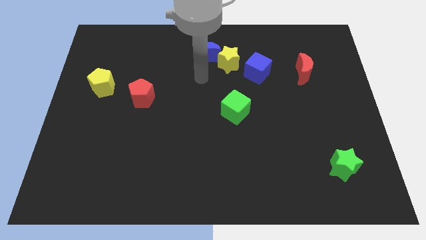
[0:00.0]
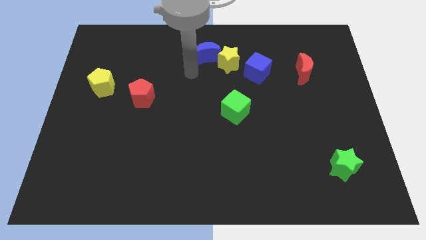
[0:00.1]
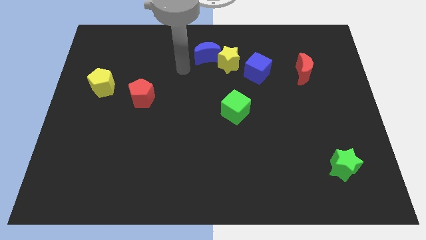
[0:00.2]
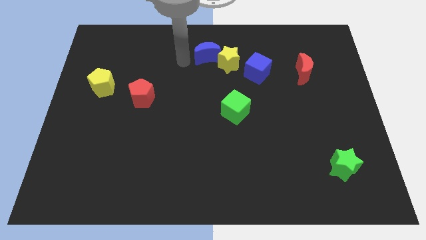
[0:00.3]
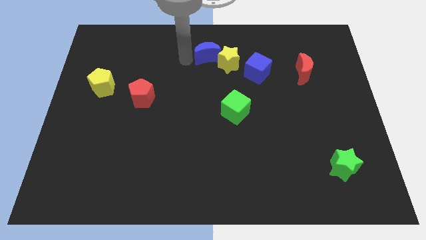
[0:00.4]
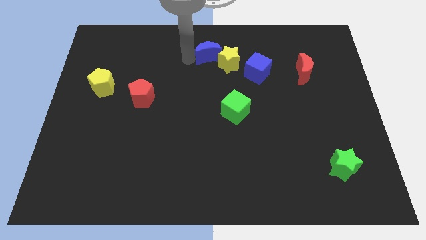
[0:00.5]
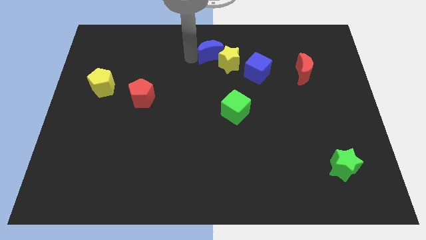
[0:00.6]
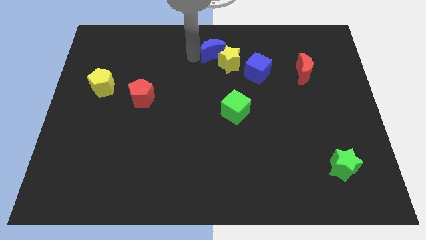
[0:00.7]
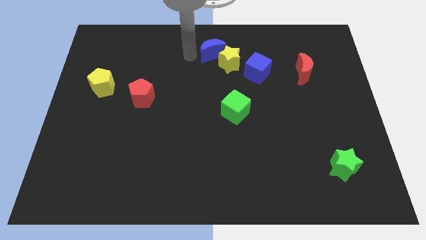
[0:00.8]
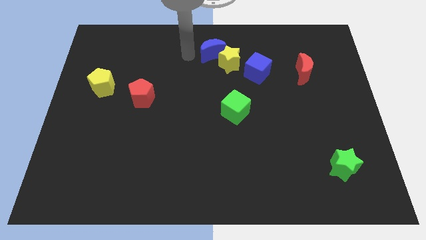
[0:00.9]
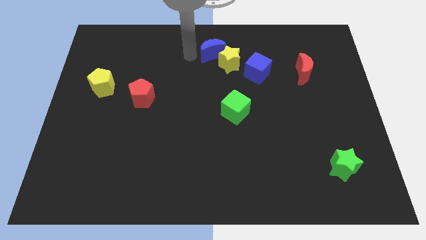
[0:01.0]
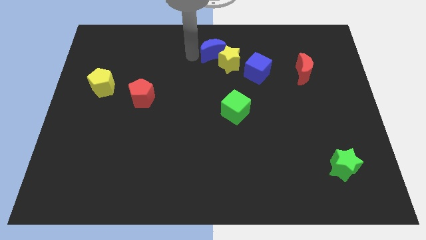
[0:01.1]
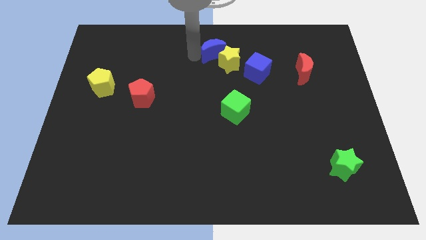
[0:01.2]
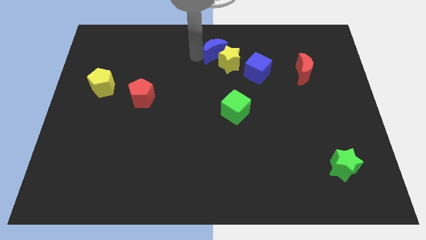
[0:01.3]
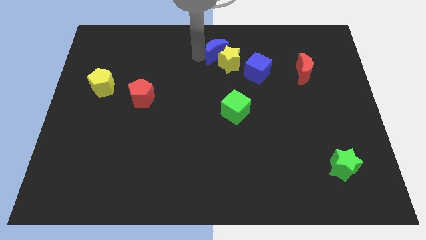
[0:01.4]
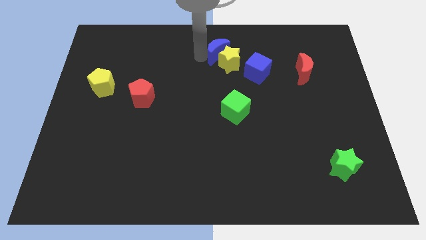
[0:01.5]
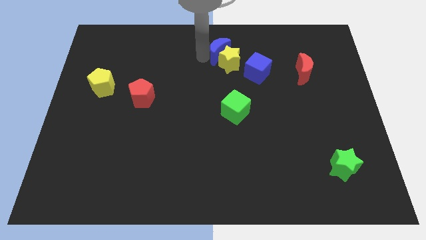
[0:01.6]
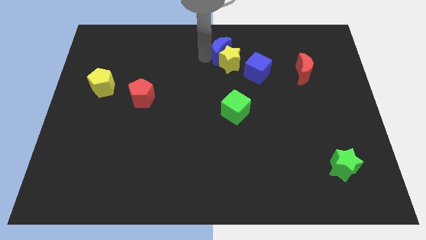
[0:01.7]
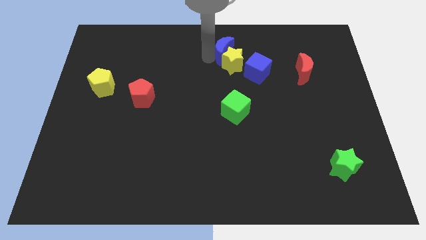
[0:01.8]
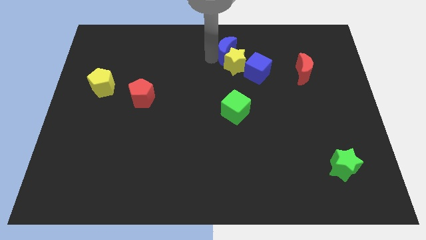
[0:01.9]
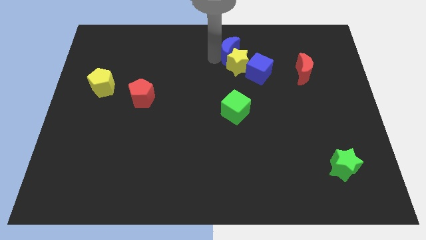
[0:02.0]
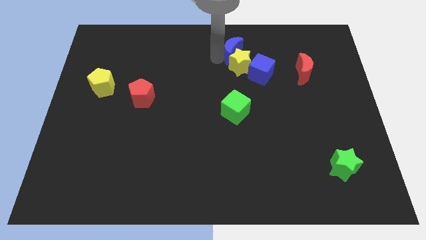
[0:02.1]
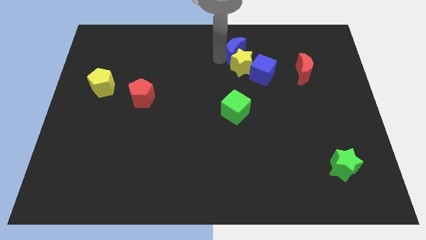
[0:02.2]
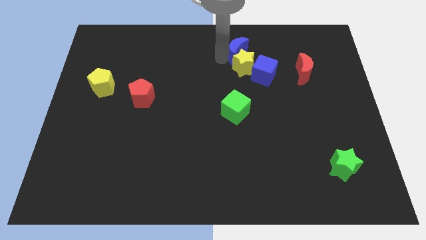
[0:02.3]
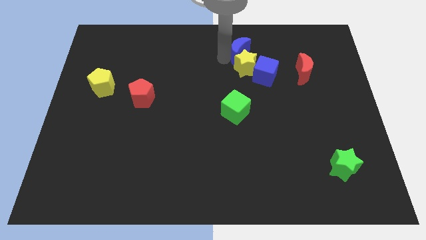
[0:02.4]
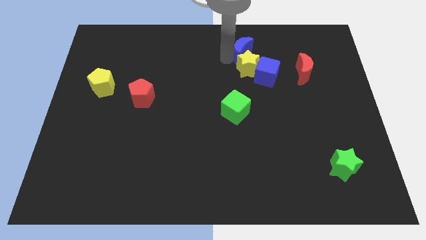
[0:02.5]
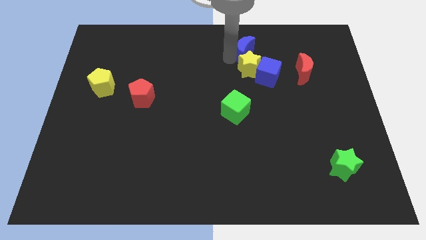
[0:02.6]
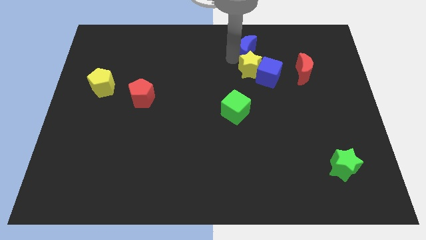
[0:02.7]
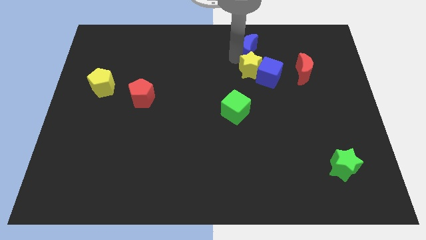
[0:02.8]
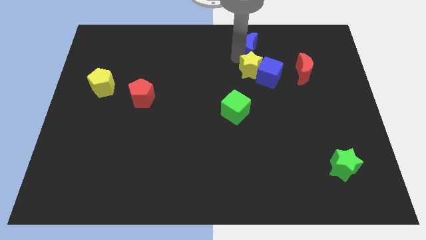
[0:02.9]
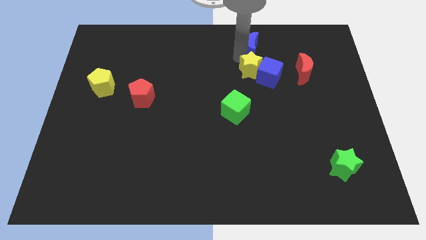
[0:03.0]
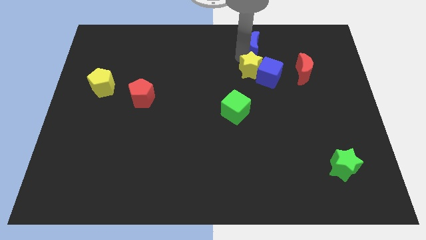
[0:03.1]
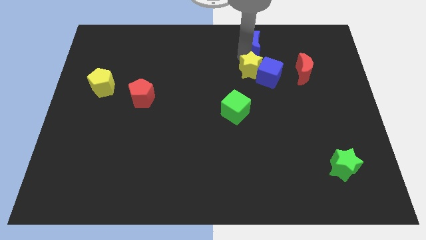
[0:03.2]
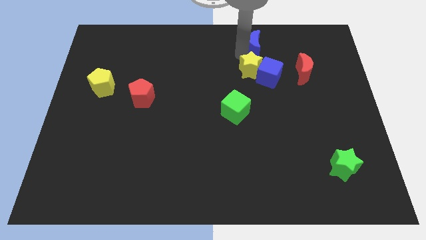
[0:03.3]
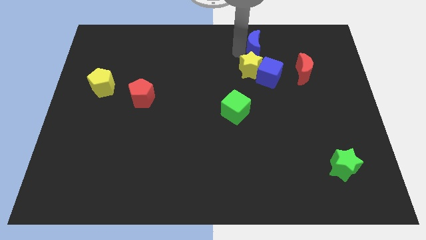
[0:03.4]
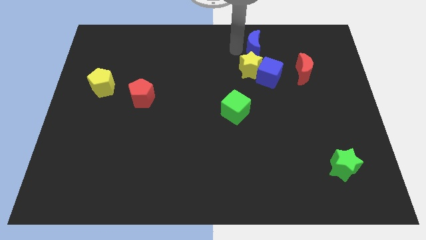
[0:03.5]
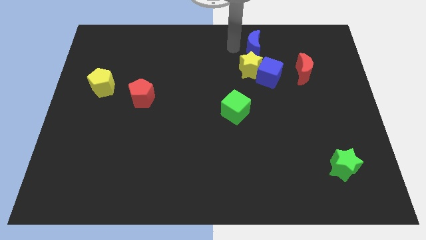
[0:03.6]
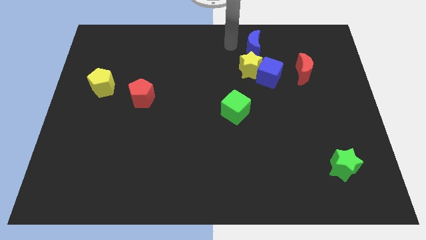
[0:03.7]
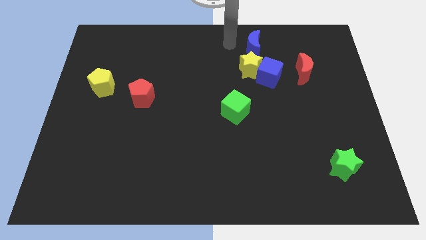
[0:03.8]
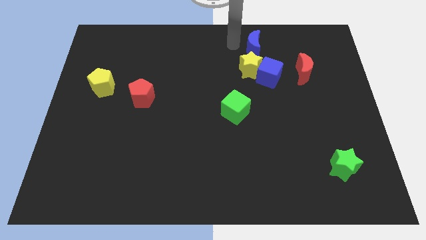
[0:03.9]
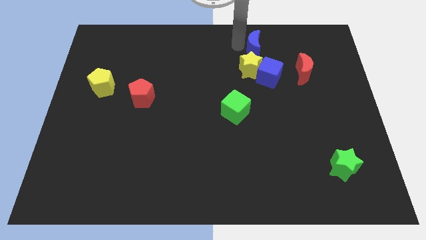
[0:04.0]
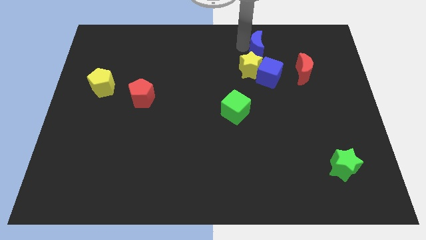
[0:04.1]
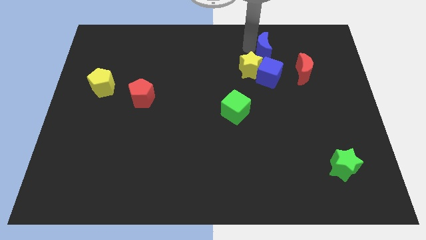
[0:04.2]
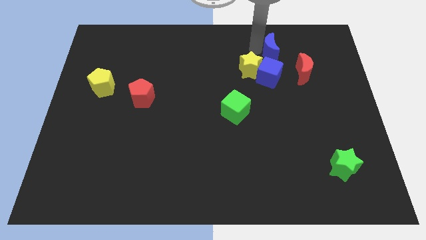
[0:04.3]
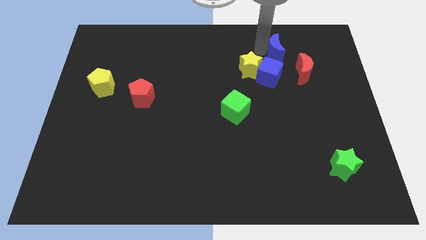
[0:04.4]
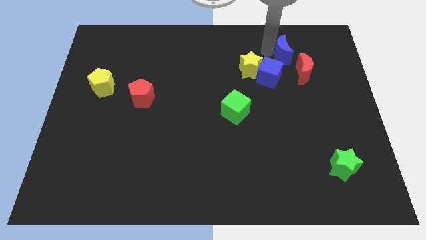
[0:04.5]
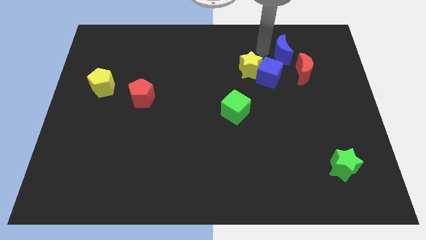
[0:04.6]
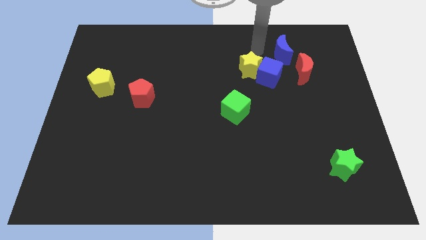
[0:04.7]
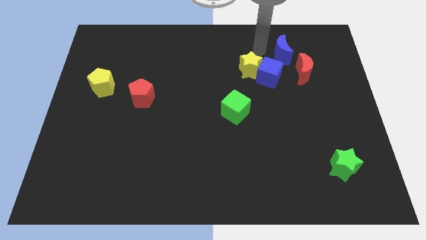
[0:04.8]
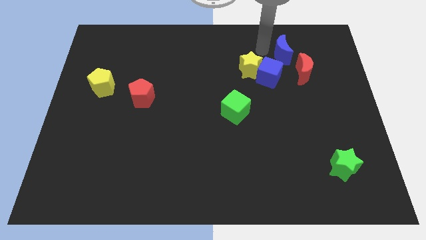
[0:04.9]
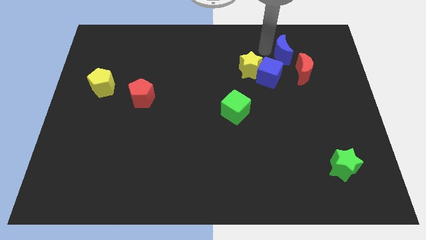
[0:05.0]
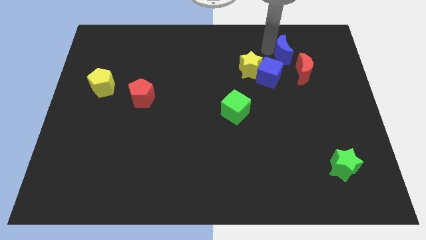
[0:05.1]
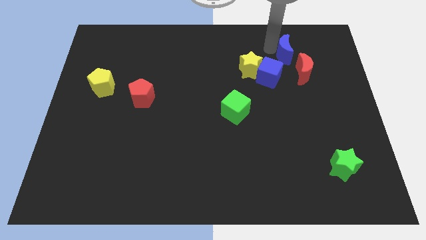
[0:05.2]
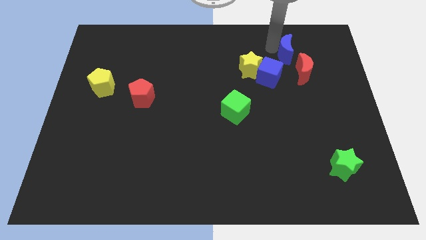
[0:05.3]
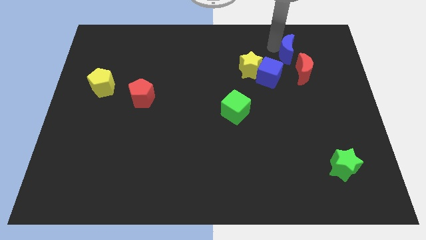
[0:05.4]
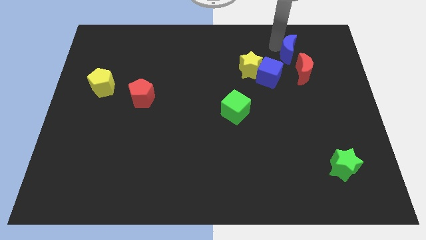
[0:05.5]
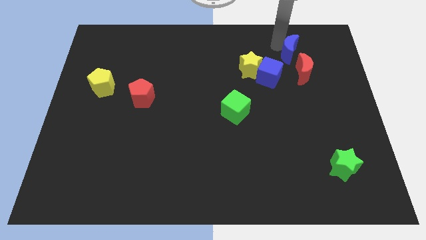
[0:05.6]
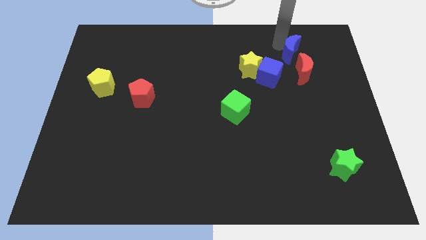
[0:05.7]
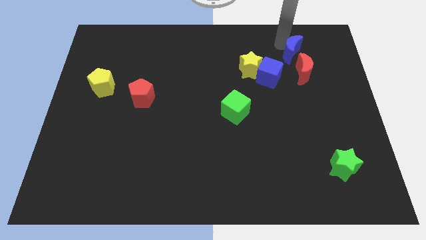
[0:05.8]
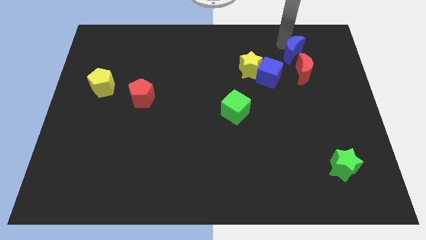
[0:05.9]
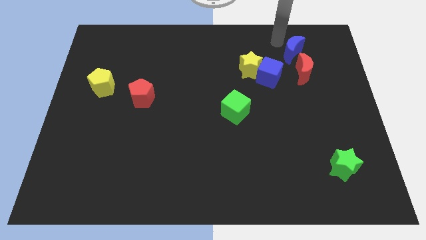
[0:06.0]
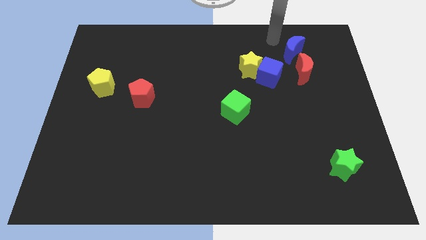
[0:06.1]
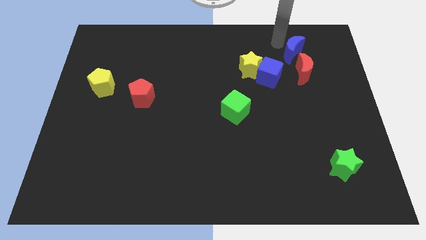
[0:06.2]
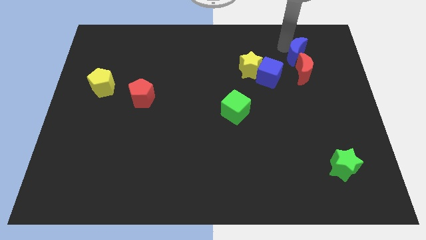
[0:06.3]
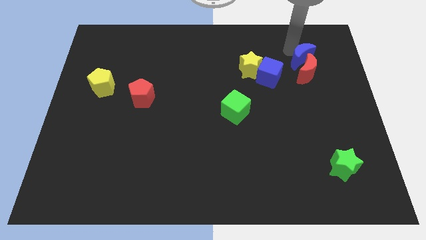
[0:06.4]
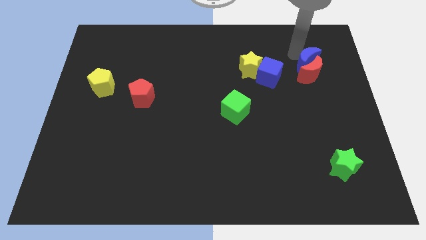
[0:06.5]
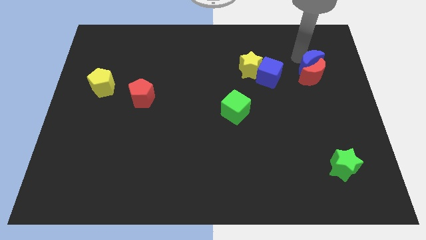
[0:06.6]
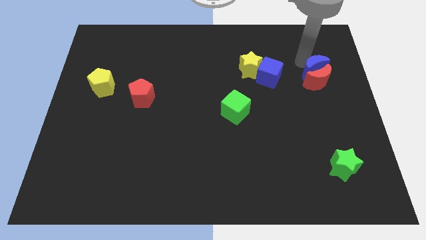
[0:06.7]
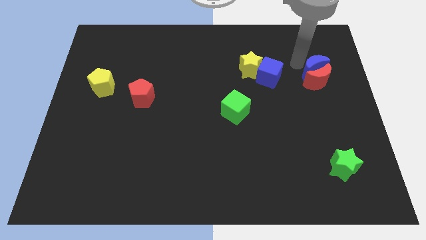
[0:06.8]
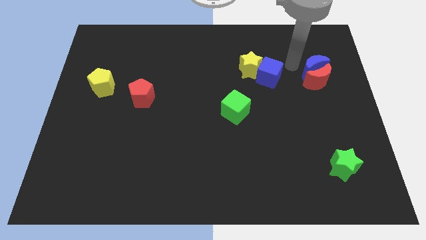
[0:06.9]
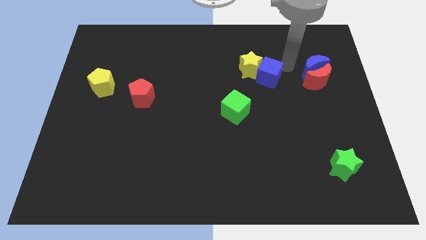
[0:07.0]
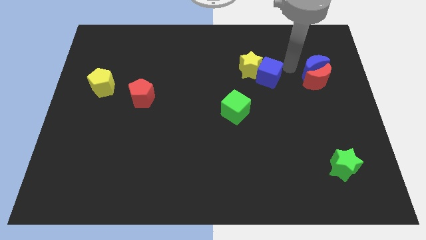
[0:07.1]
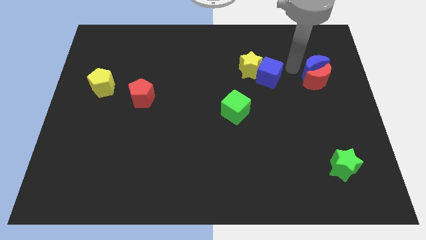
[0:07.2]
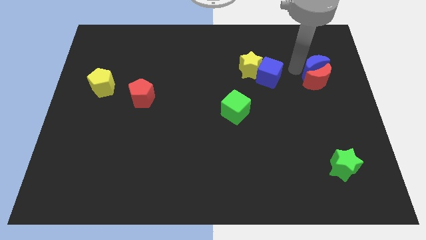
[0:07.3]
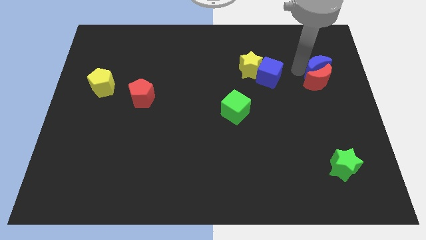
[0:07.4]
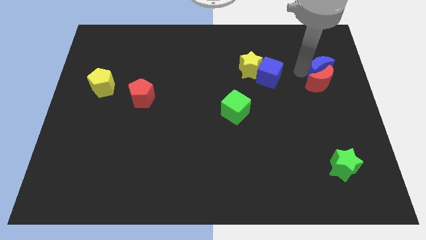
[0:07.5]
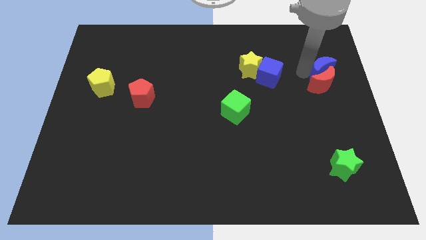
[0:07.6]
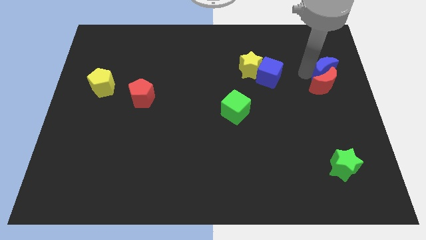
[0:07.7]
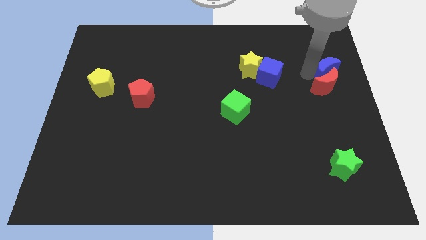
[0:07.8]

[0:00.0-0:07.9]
move the blue moon to the right side of the board
